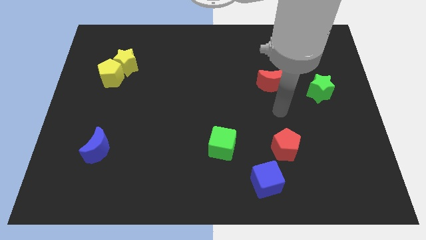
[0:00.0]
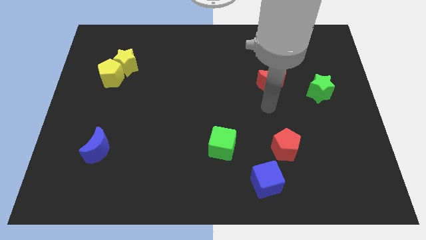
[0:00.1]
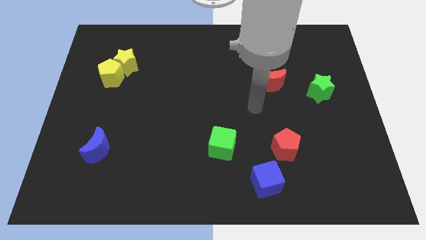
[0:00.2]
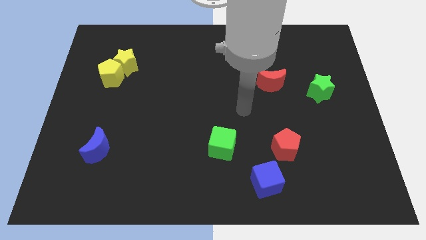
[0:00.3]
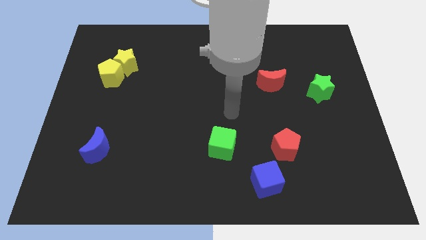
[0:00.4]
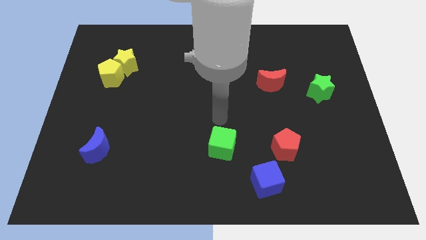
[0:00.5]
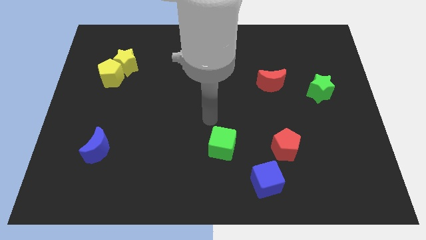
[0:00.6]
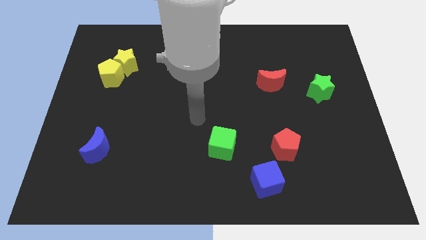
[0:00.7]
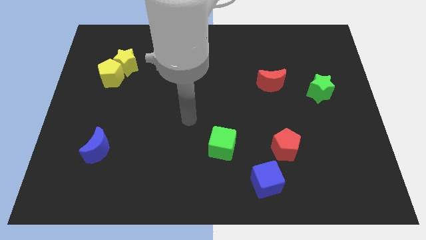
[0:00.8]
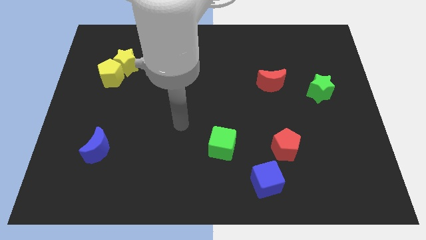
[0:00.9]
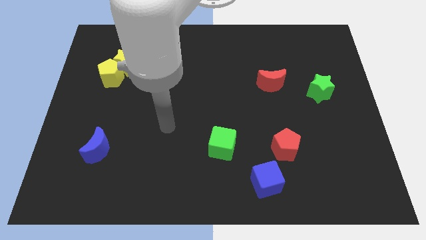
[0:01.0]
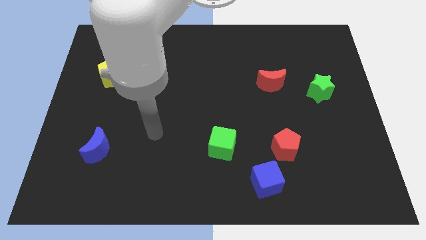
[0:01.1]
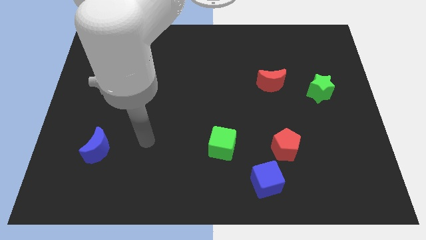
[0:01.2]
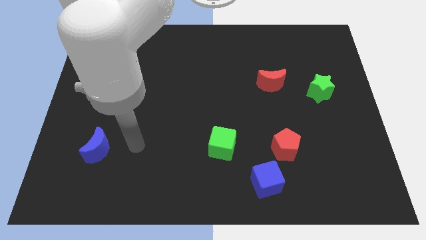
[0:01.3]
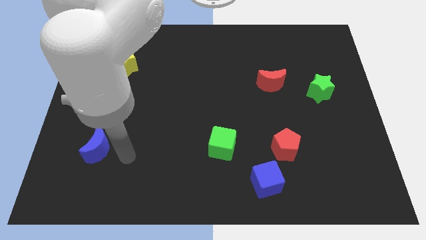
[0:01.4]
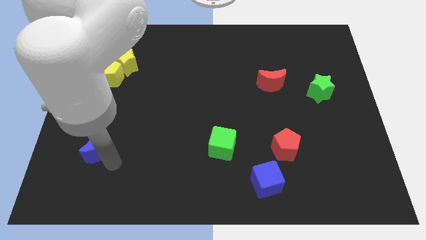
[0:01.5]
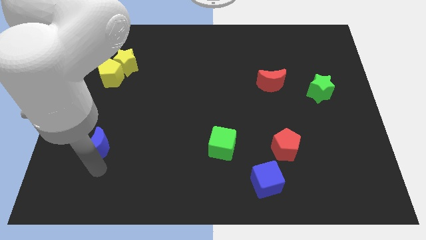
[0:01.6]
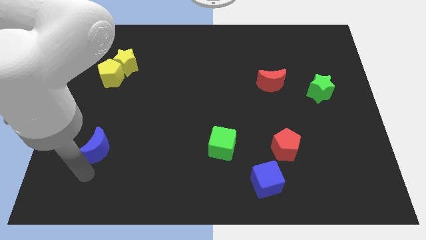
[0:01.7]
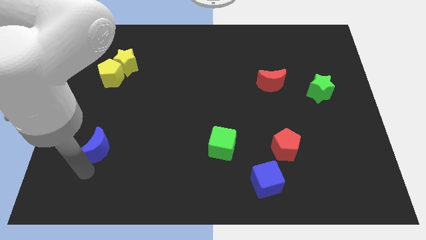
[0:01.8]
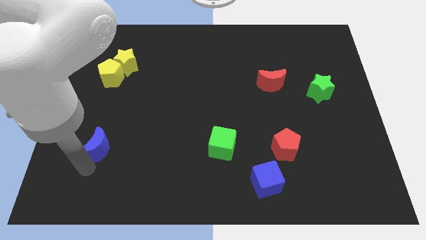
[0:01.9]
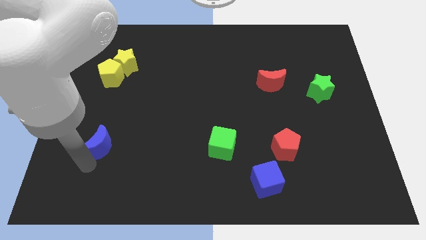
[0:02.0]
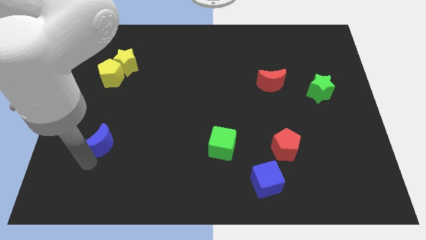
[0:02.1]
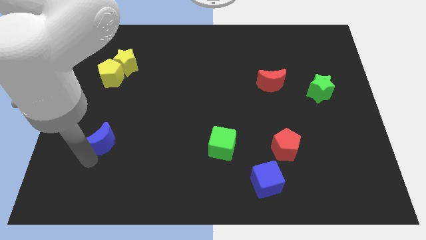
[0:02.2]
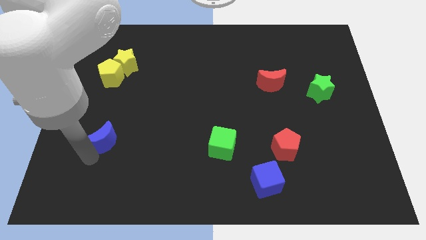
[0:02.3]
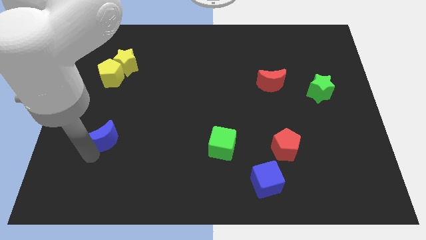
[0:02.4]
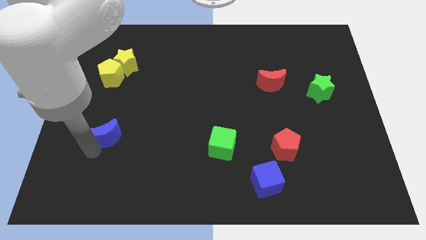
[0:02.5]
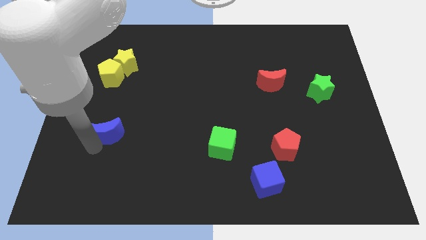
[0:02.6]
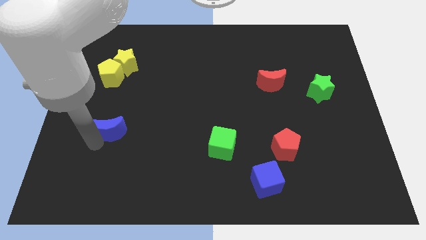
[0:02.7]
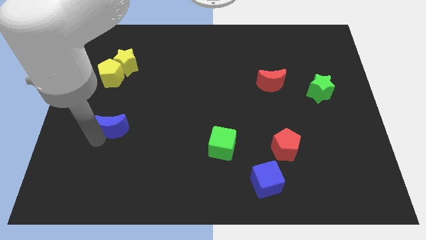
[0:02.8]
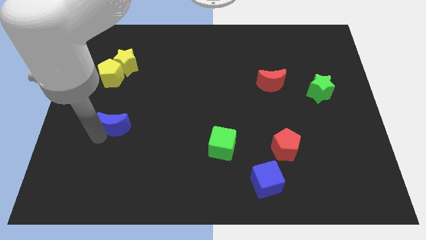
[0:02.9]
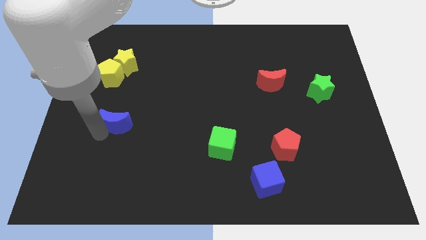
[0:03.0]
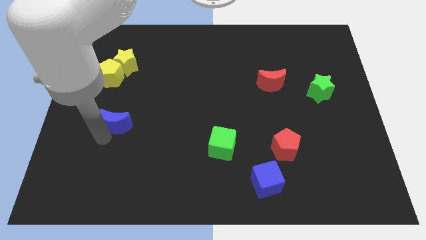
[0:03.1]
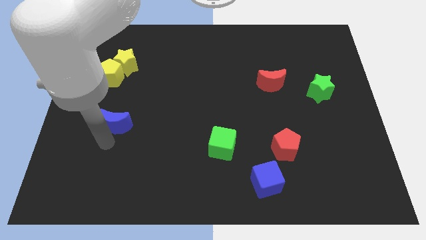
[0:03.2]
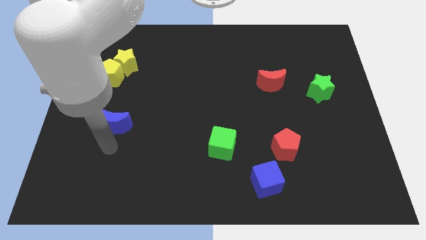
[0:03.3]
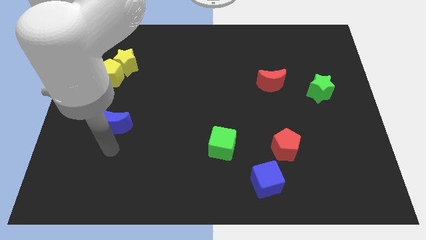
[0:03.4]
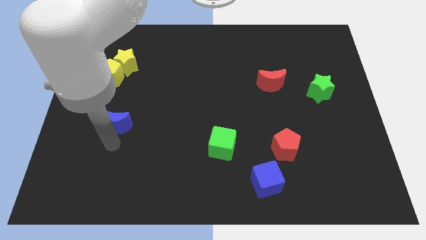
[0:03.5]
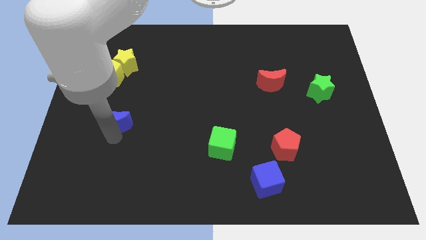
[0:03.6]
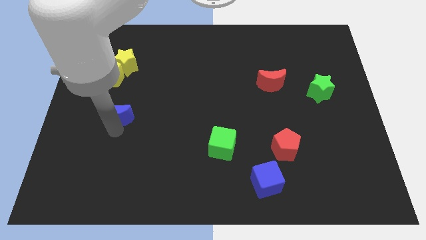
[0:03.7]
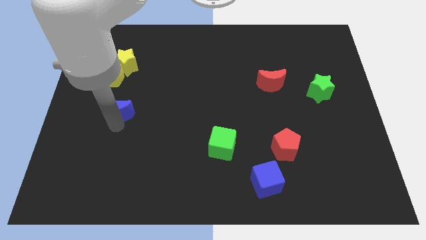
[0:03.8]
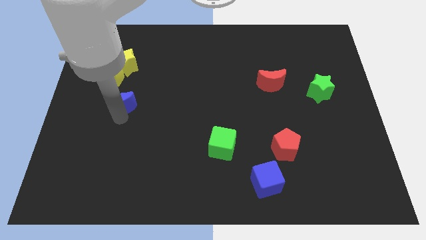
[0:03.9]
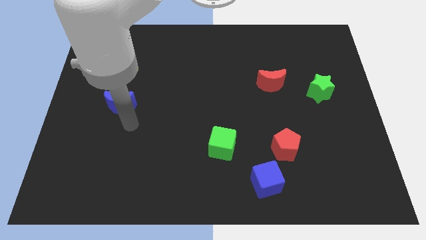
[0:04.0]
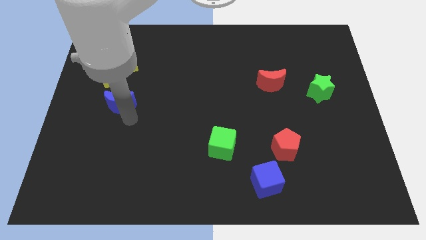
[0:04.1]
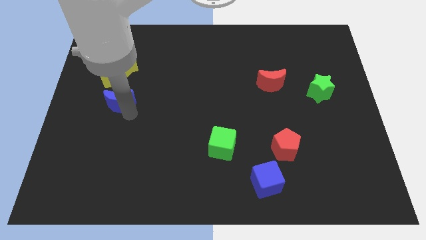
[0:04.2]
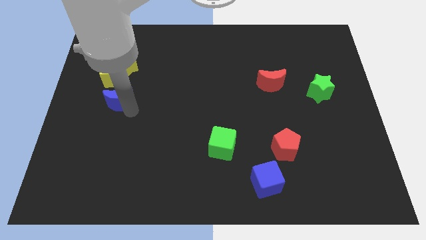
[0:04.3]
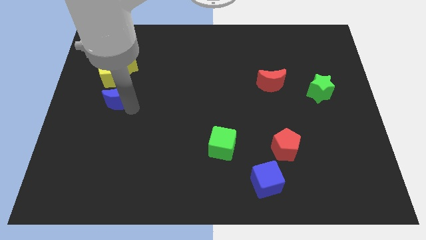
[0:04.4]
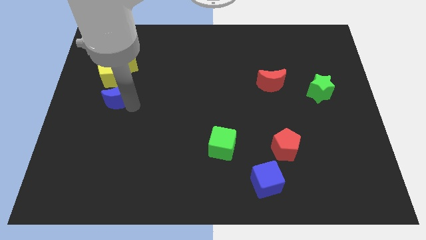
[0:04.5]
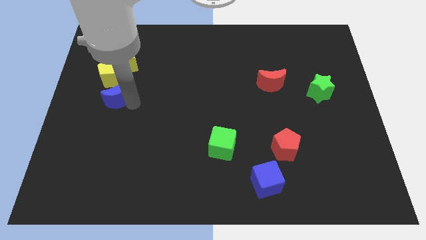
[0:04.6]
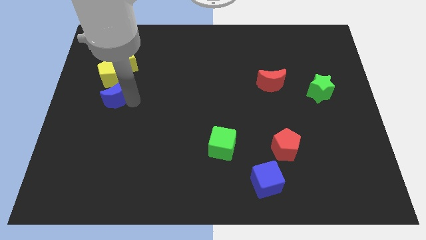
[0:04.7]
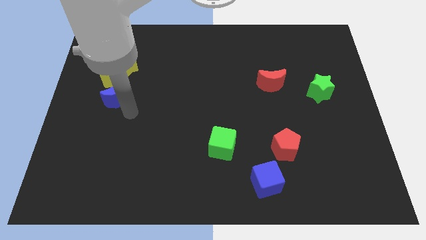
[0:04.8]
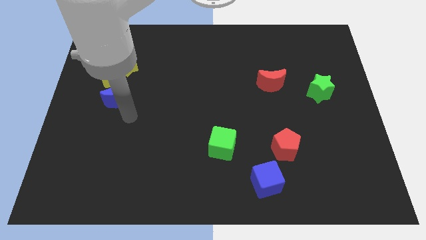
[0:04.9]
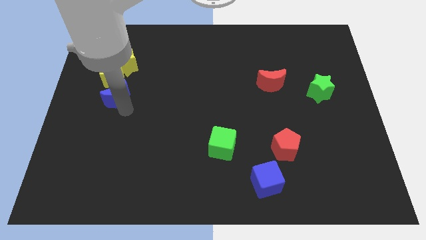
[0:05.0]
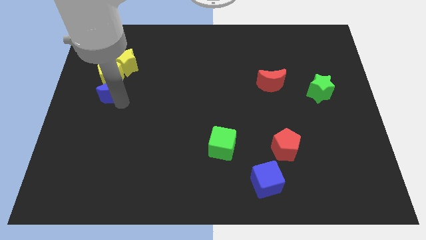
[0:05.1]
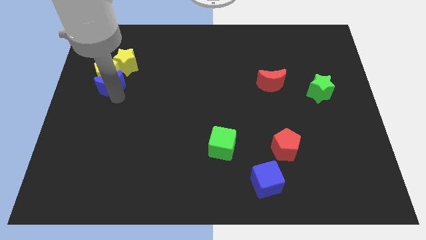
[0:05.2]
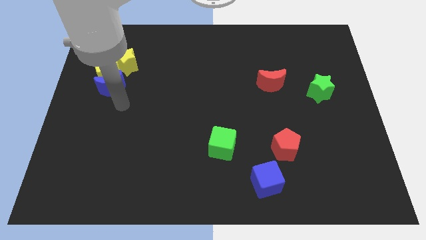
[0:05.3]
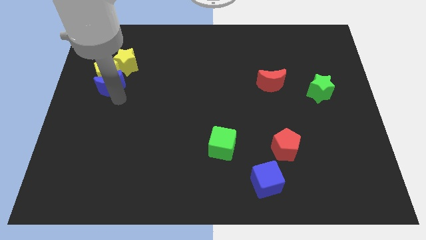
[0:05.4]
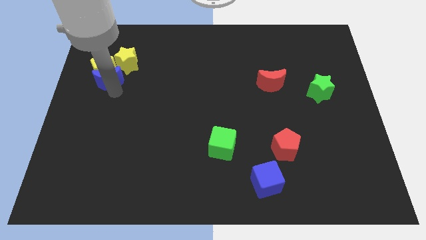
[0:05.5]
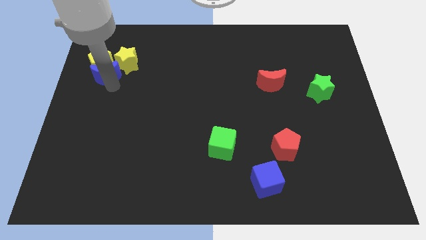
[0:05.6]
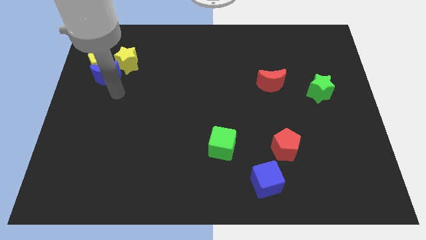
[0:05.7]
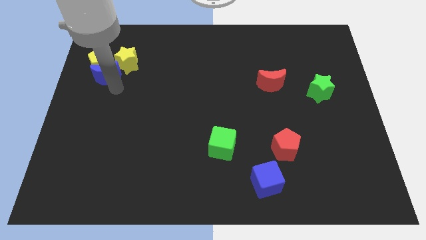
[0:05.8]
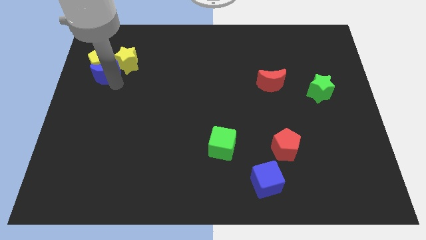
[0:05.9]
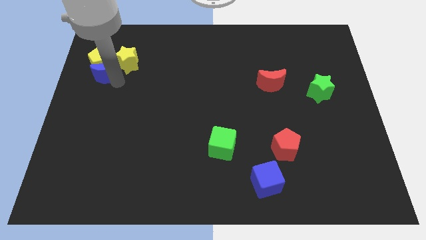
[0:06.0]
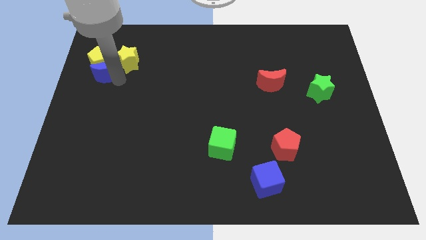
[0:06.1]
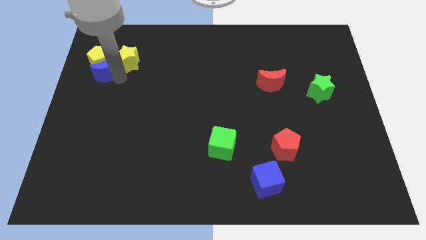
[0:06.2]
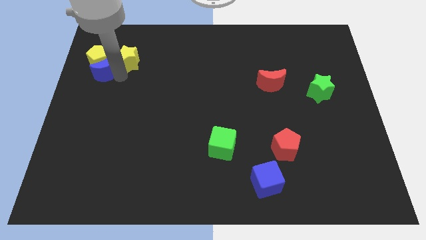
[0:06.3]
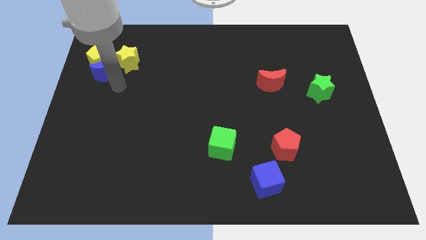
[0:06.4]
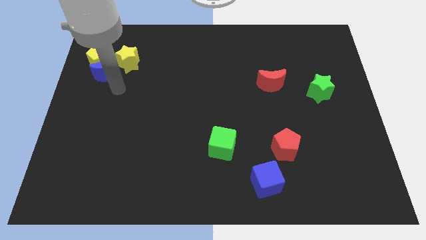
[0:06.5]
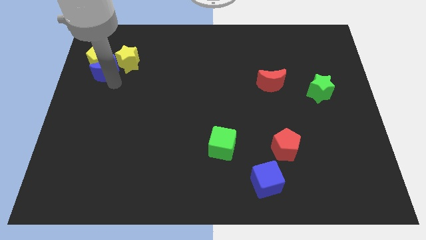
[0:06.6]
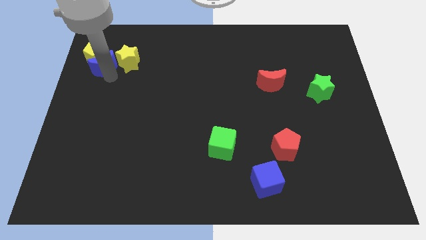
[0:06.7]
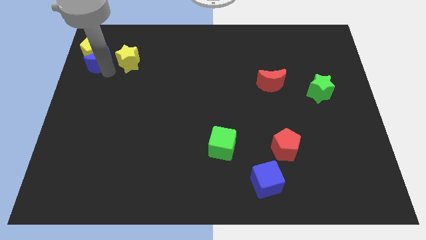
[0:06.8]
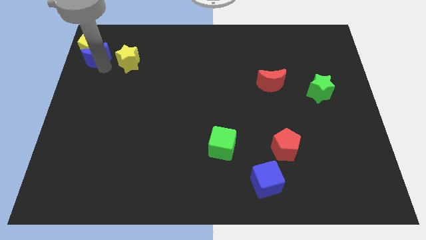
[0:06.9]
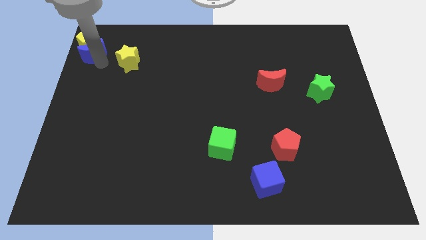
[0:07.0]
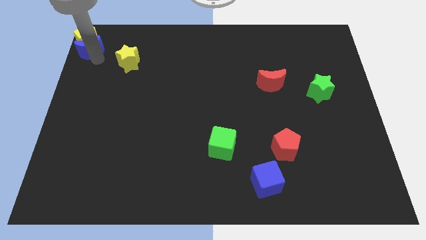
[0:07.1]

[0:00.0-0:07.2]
put the blue moon to the top left corner
